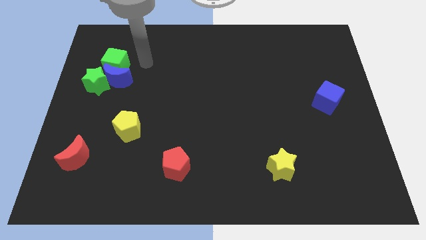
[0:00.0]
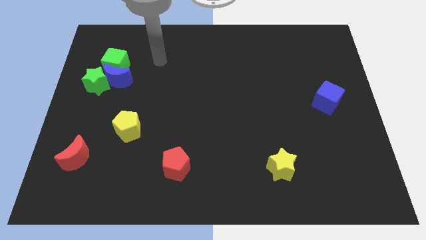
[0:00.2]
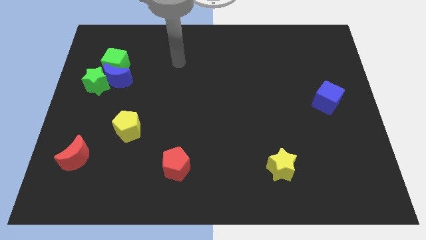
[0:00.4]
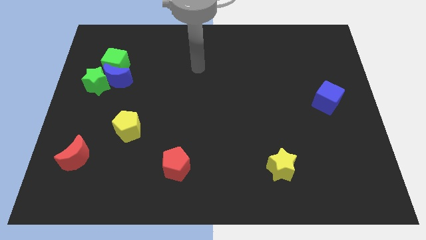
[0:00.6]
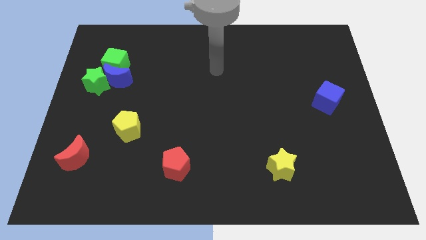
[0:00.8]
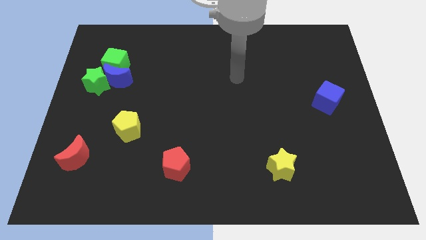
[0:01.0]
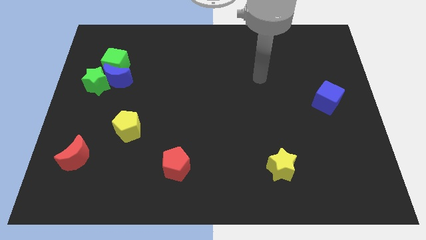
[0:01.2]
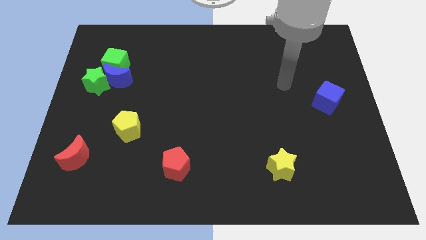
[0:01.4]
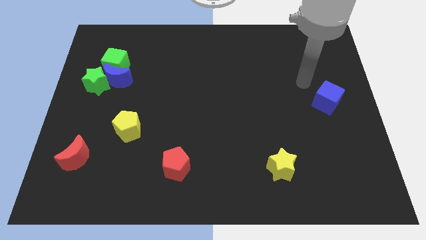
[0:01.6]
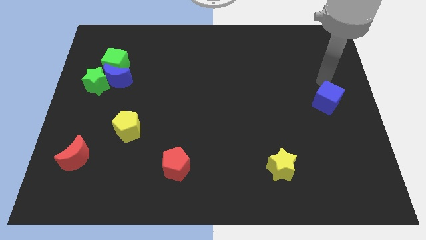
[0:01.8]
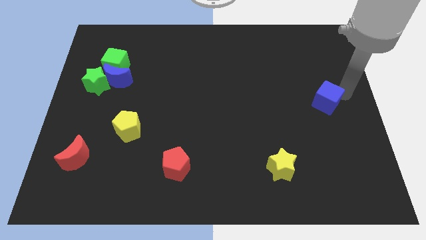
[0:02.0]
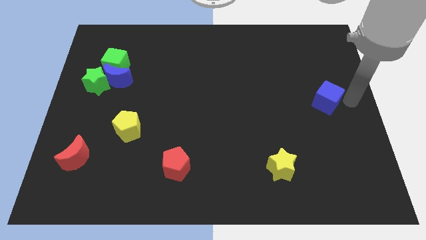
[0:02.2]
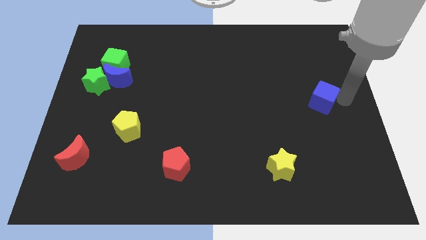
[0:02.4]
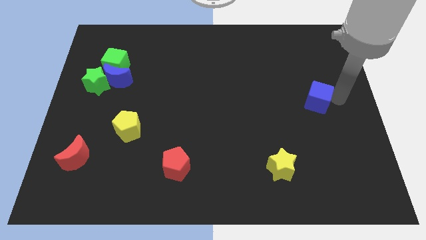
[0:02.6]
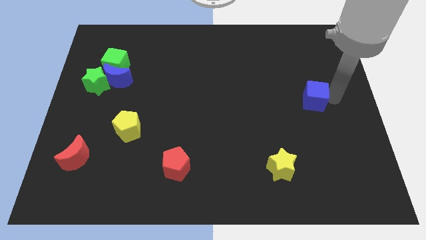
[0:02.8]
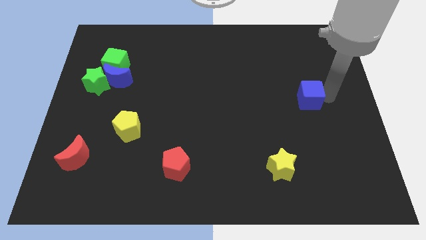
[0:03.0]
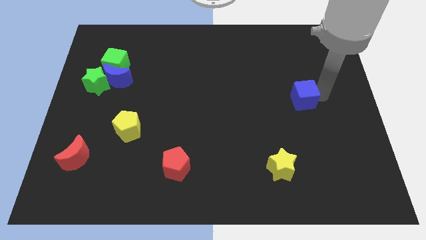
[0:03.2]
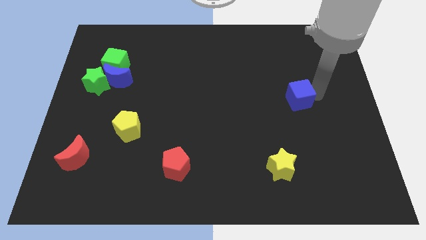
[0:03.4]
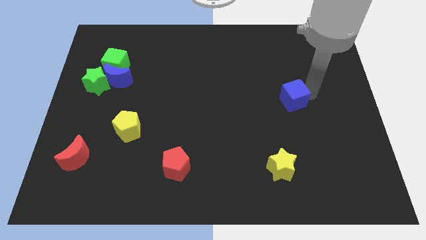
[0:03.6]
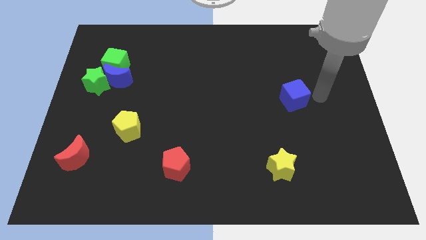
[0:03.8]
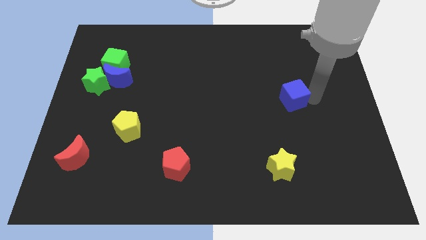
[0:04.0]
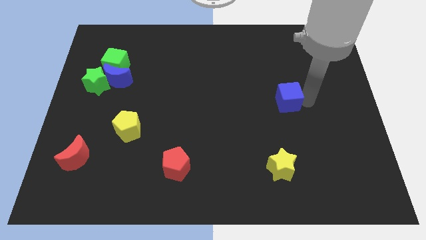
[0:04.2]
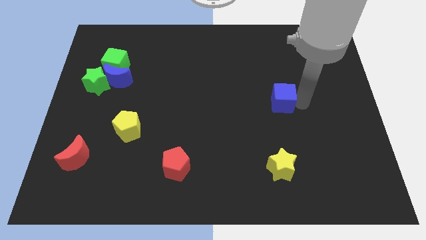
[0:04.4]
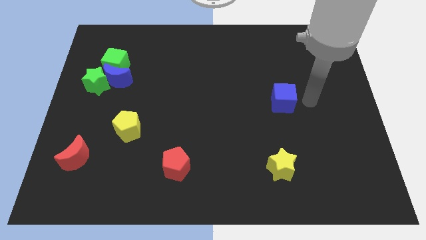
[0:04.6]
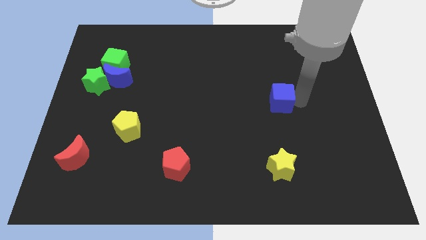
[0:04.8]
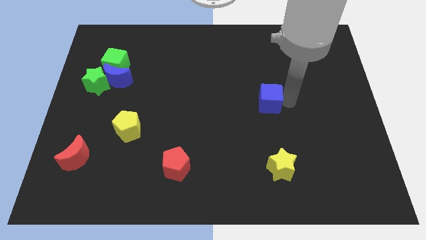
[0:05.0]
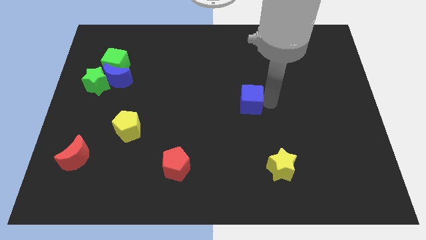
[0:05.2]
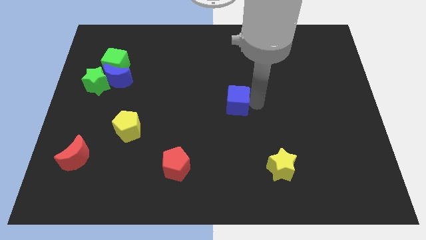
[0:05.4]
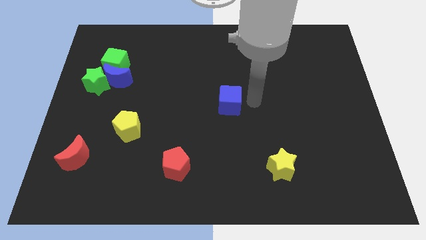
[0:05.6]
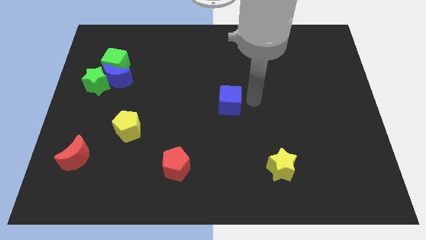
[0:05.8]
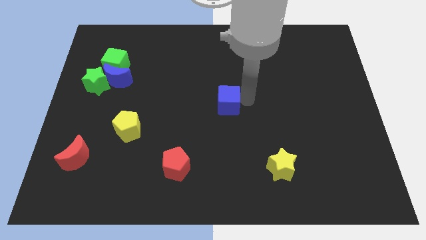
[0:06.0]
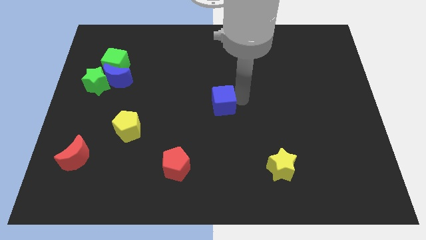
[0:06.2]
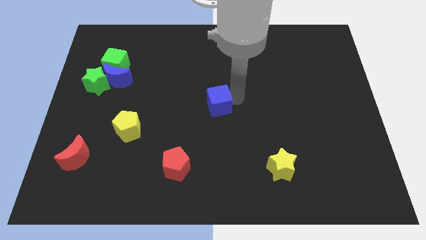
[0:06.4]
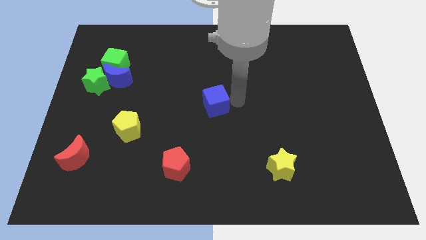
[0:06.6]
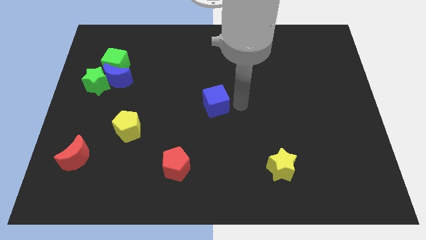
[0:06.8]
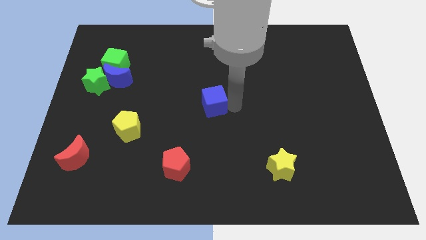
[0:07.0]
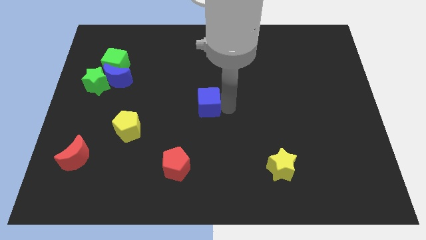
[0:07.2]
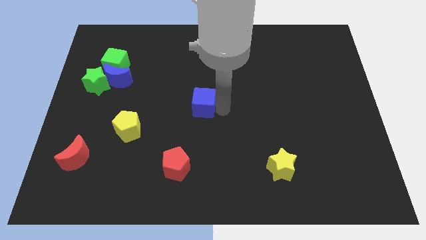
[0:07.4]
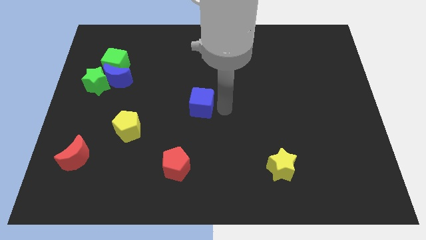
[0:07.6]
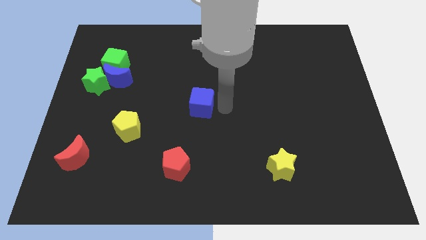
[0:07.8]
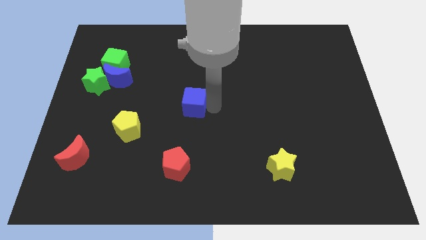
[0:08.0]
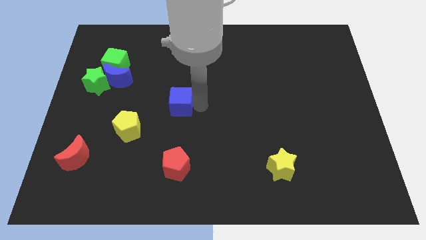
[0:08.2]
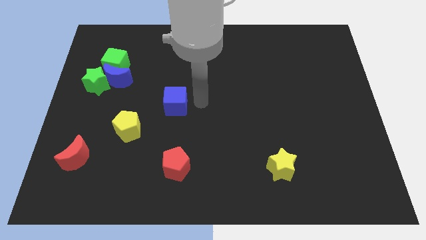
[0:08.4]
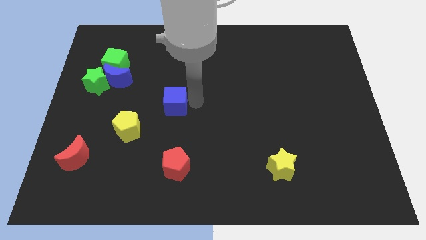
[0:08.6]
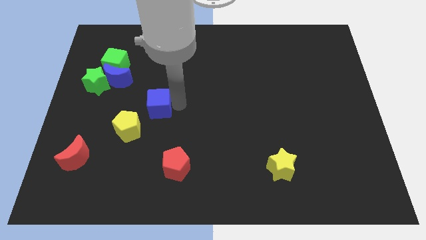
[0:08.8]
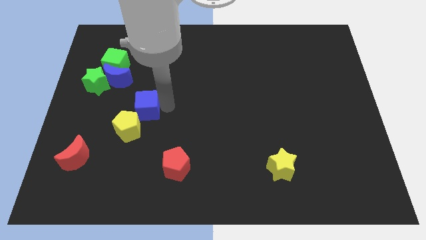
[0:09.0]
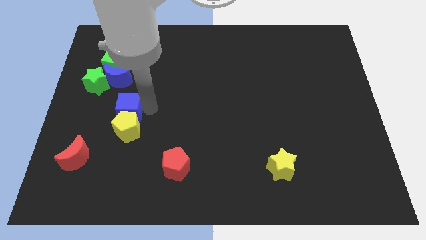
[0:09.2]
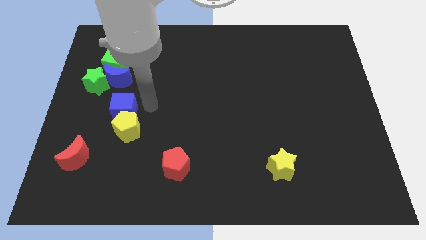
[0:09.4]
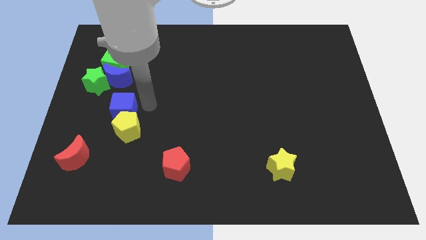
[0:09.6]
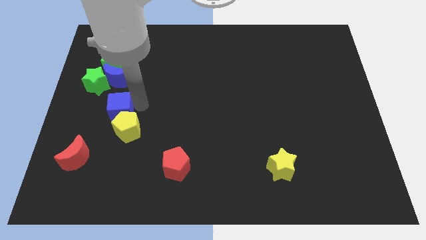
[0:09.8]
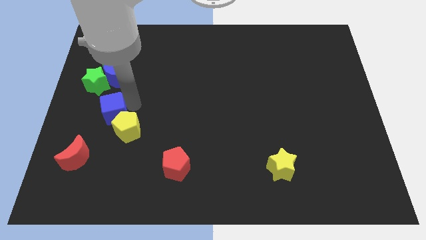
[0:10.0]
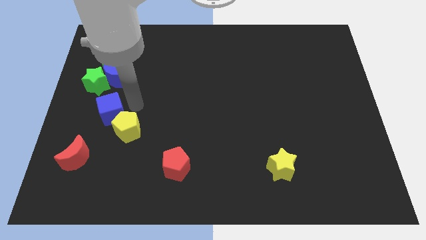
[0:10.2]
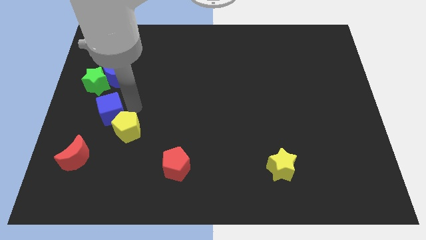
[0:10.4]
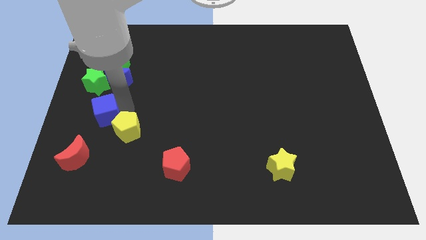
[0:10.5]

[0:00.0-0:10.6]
push the blue cube to the top side of the red moon

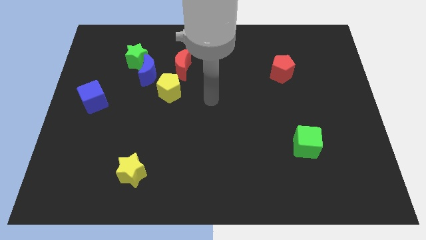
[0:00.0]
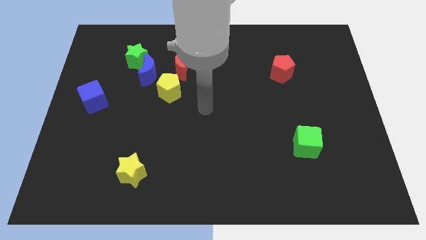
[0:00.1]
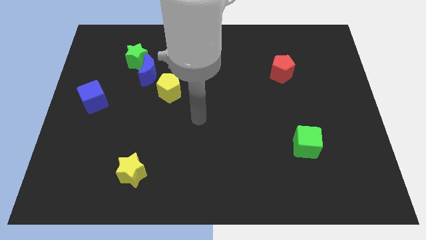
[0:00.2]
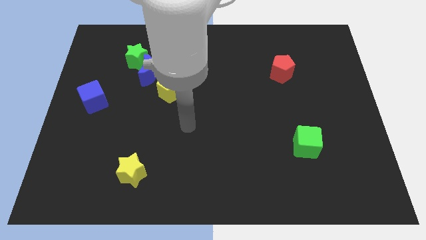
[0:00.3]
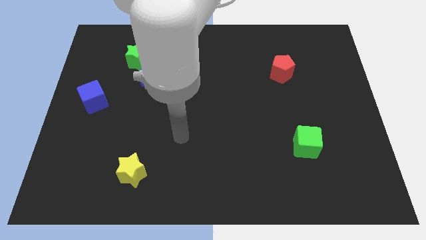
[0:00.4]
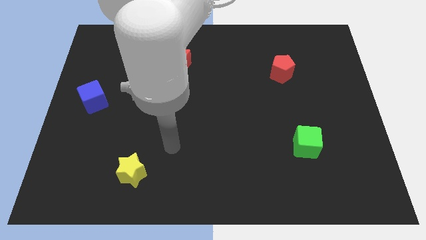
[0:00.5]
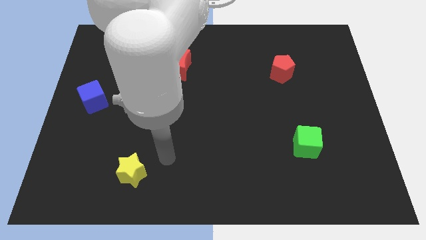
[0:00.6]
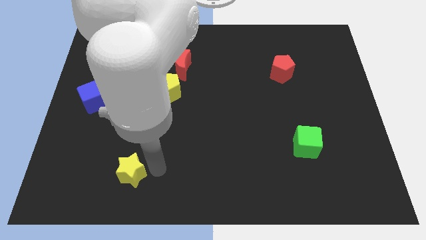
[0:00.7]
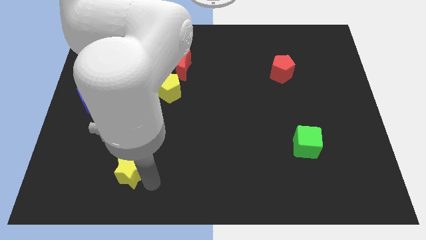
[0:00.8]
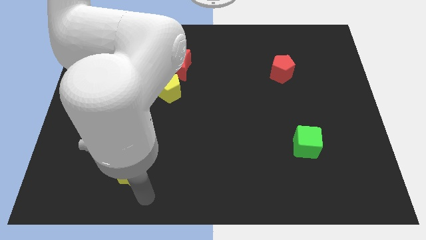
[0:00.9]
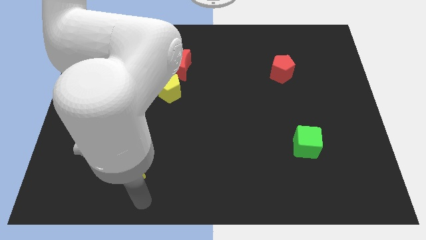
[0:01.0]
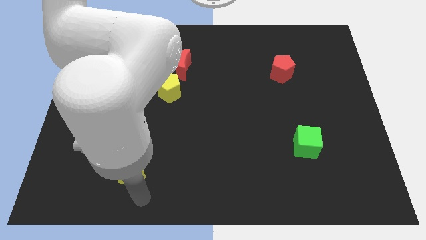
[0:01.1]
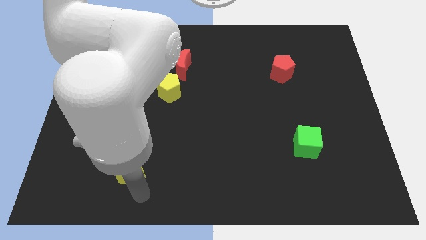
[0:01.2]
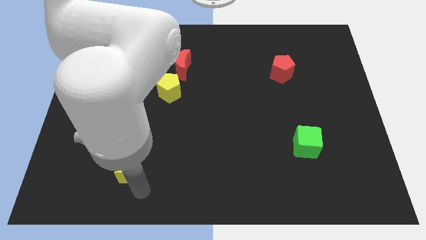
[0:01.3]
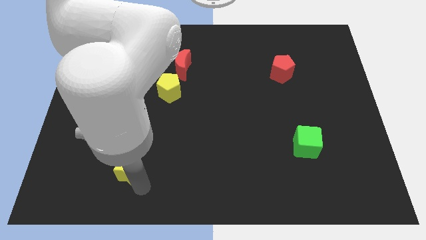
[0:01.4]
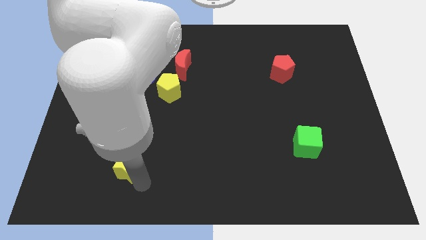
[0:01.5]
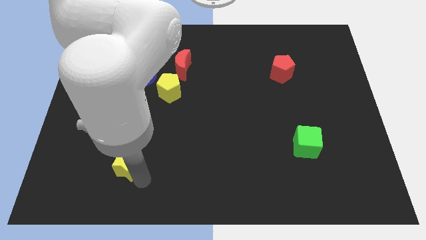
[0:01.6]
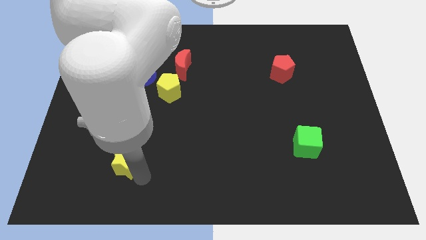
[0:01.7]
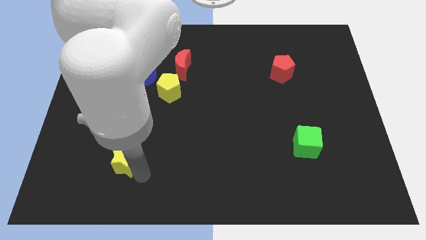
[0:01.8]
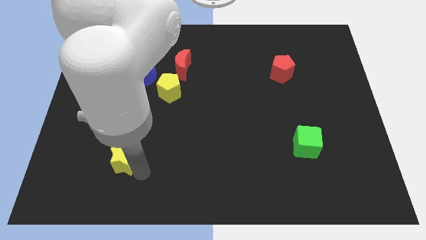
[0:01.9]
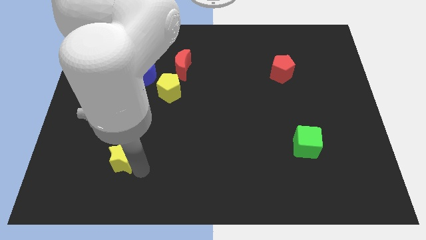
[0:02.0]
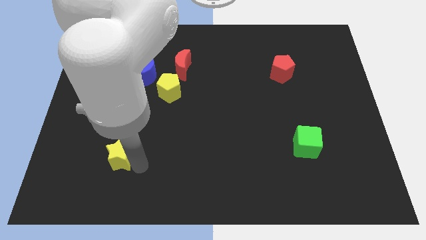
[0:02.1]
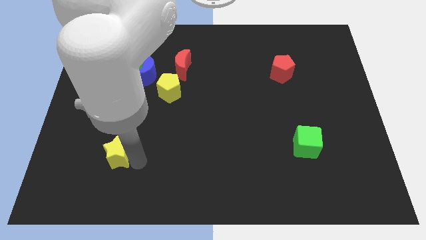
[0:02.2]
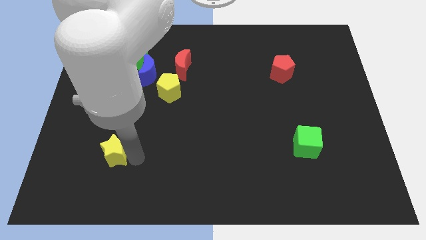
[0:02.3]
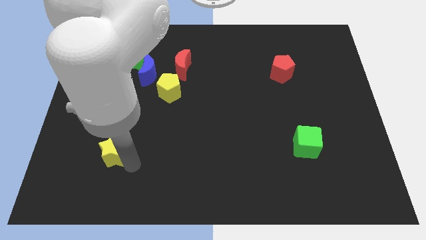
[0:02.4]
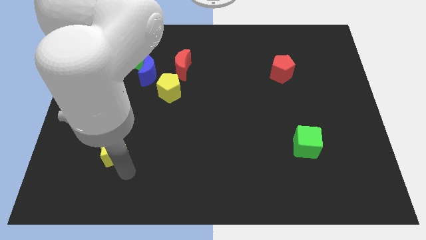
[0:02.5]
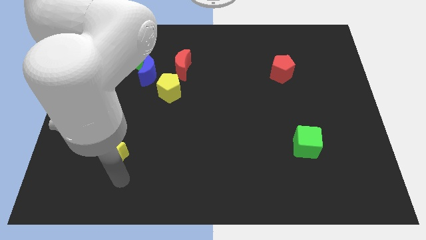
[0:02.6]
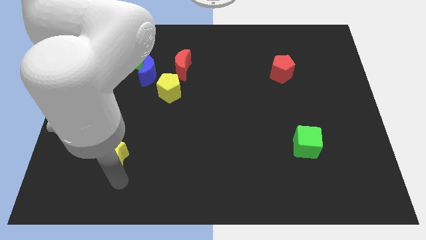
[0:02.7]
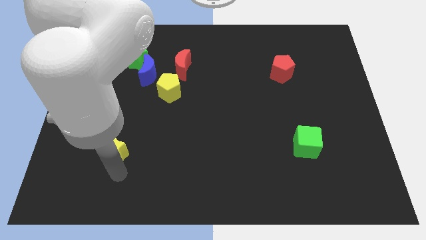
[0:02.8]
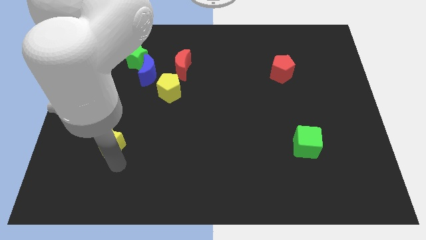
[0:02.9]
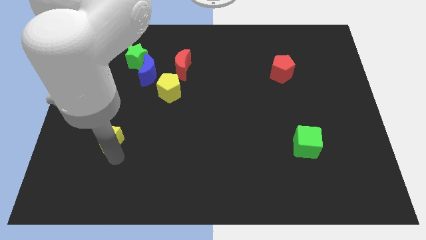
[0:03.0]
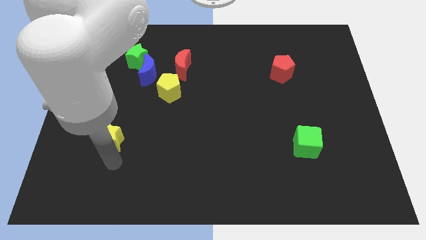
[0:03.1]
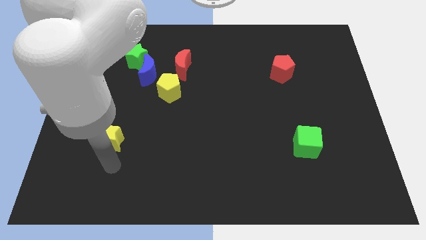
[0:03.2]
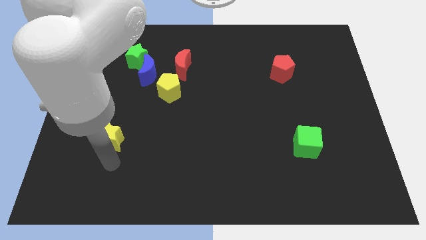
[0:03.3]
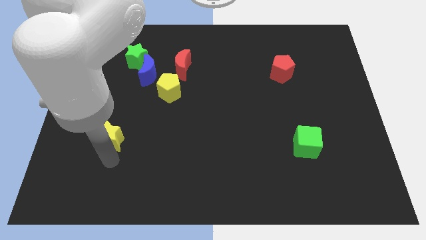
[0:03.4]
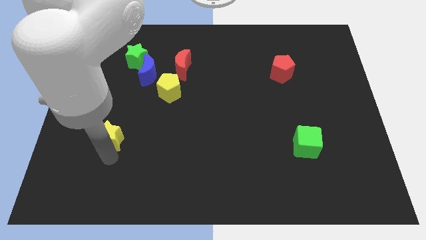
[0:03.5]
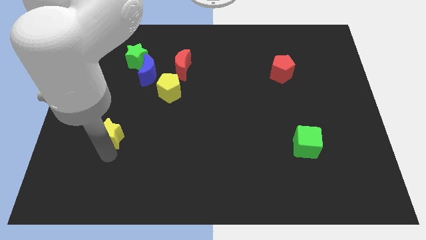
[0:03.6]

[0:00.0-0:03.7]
slide the yellow star diagonally down and to the right of the blue cube
